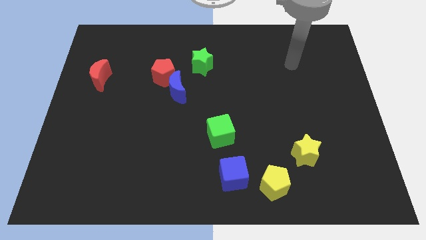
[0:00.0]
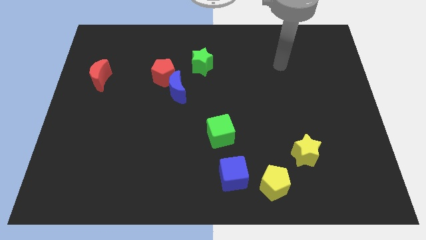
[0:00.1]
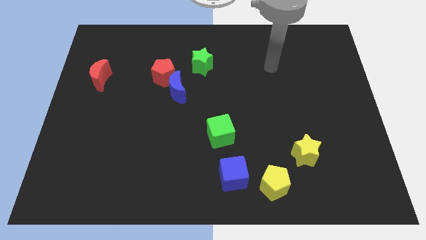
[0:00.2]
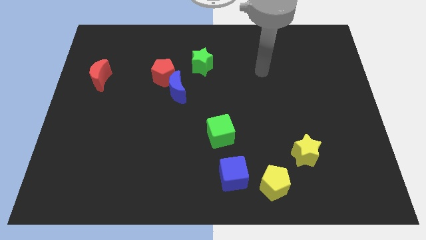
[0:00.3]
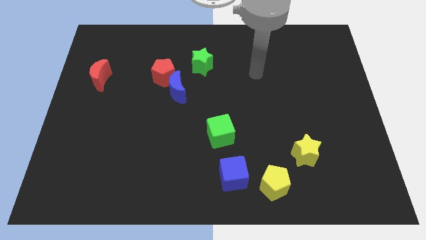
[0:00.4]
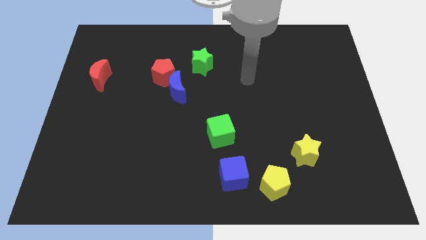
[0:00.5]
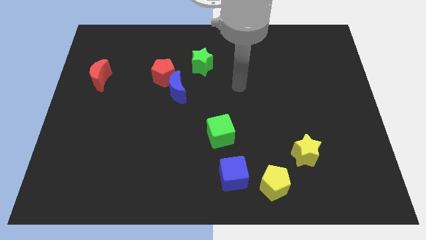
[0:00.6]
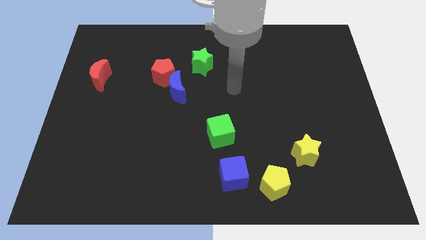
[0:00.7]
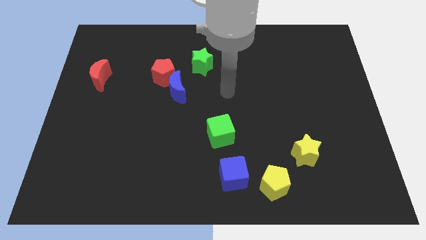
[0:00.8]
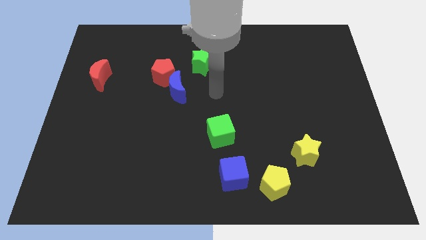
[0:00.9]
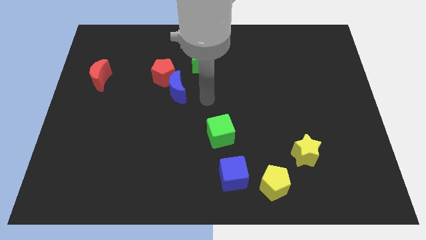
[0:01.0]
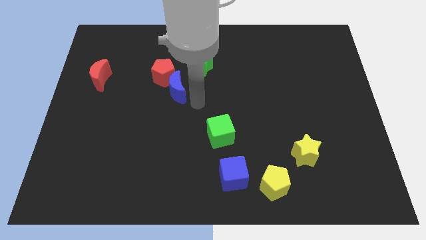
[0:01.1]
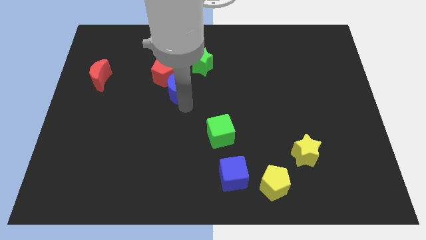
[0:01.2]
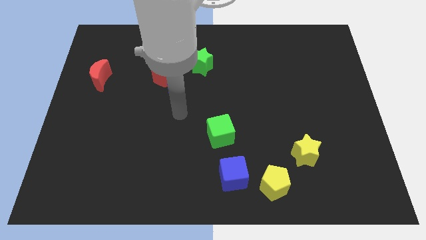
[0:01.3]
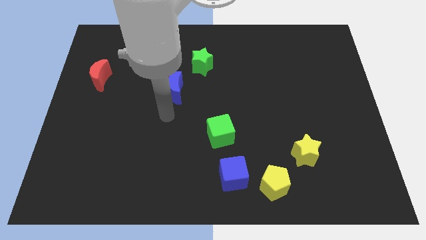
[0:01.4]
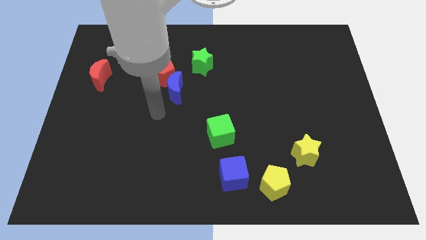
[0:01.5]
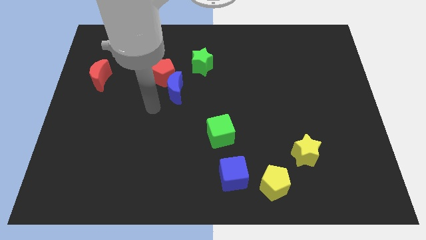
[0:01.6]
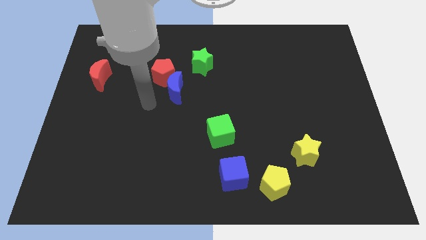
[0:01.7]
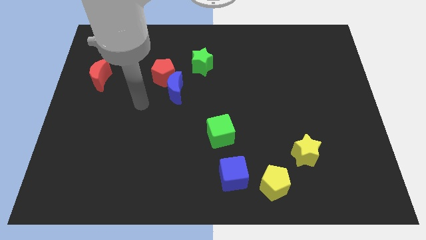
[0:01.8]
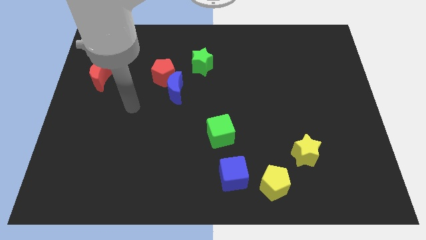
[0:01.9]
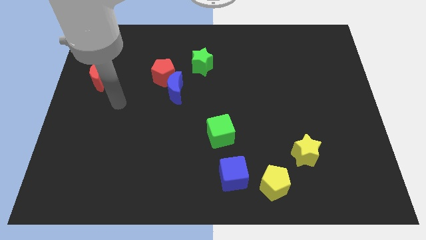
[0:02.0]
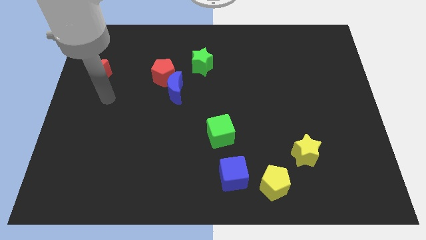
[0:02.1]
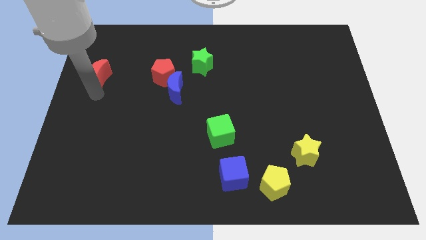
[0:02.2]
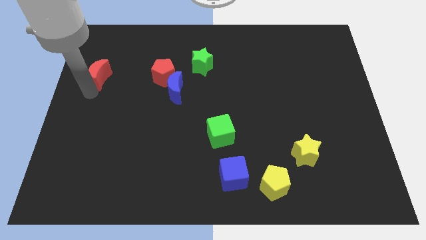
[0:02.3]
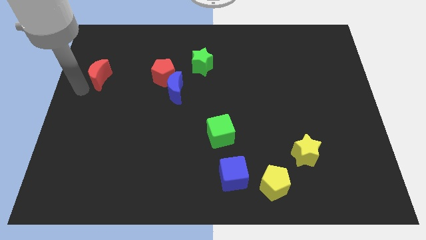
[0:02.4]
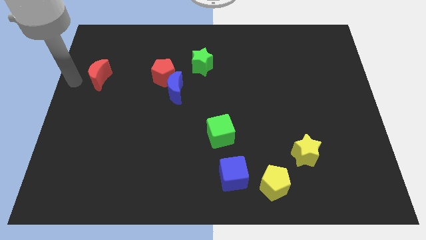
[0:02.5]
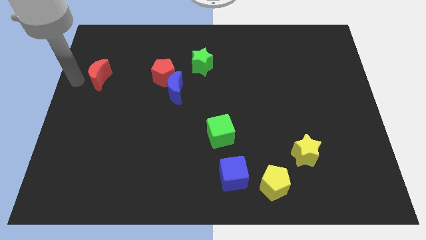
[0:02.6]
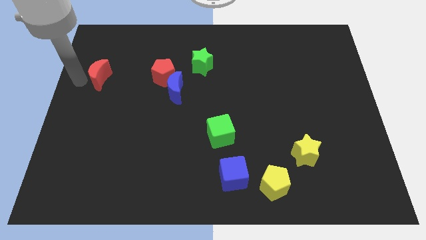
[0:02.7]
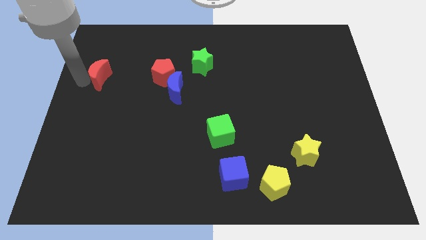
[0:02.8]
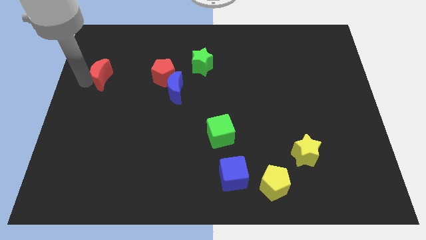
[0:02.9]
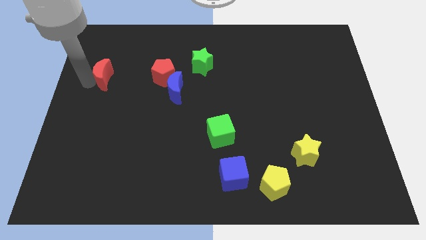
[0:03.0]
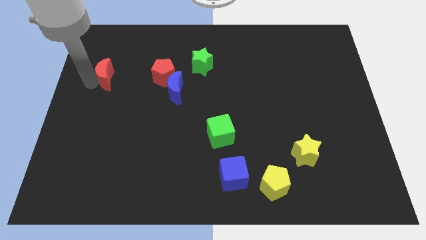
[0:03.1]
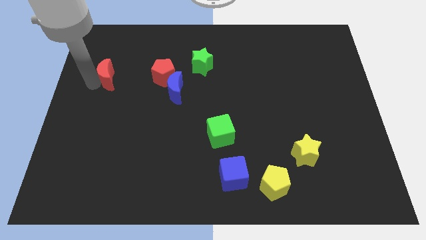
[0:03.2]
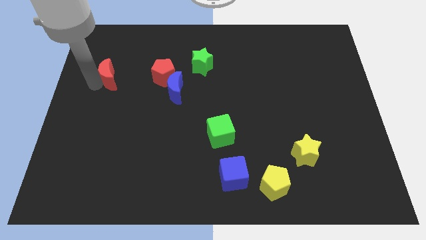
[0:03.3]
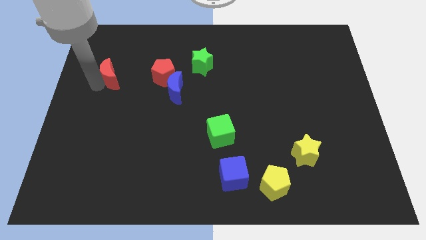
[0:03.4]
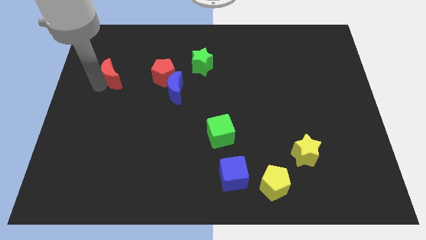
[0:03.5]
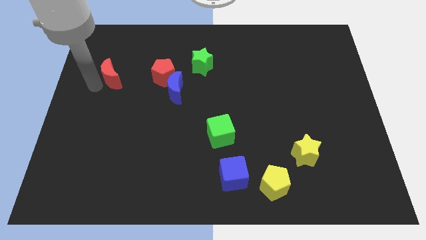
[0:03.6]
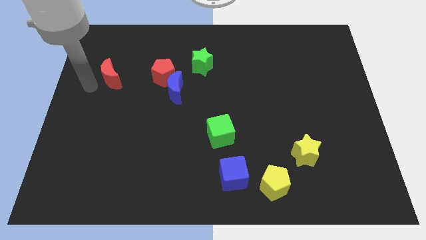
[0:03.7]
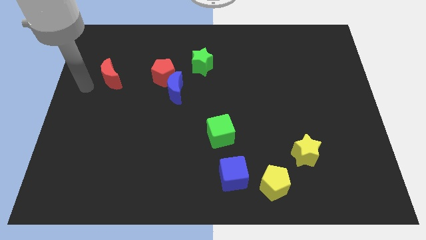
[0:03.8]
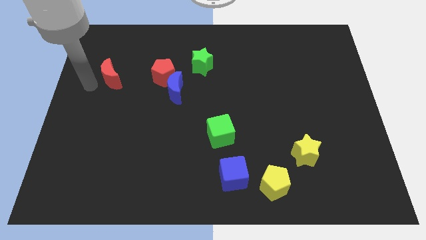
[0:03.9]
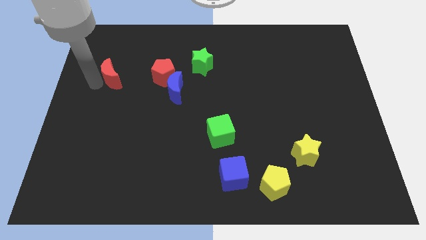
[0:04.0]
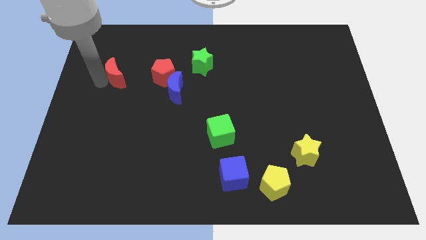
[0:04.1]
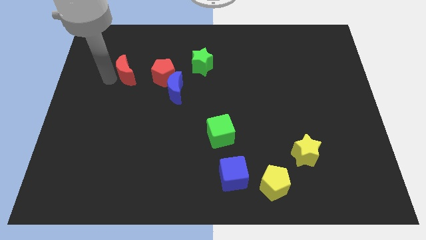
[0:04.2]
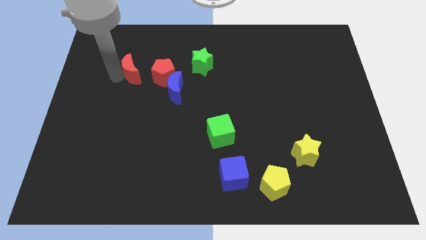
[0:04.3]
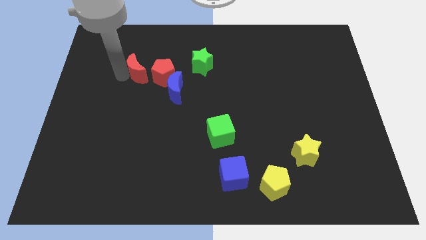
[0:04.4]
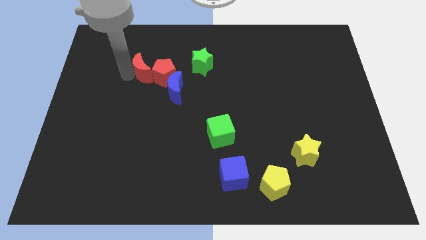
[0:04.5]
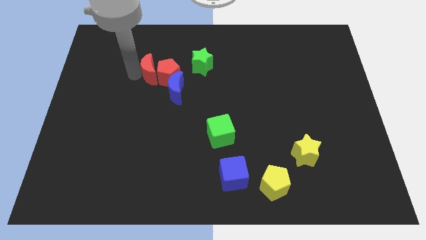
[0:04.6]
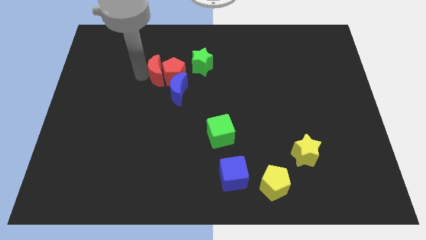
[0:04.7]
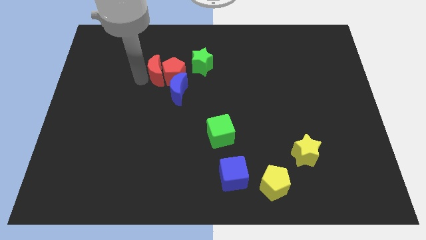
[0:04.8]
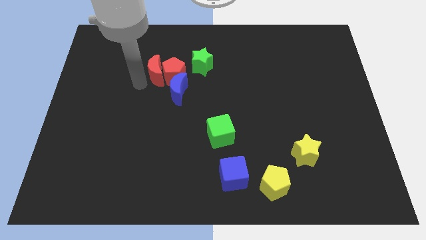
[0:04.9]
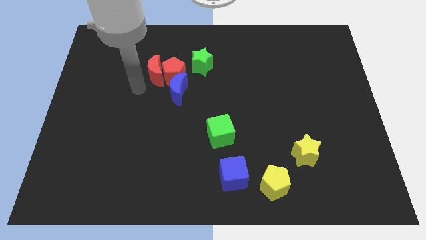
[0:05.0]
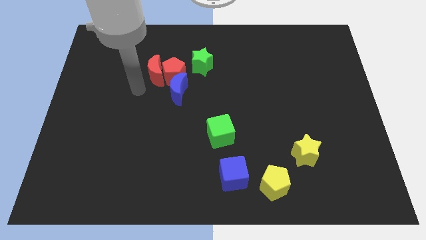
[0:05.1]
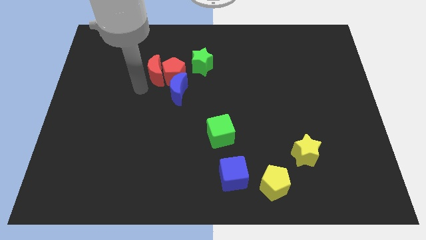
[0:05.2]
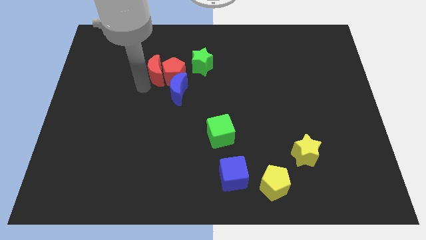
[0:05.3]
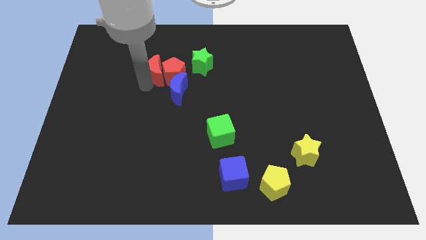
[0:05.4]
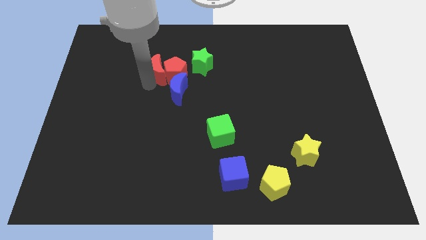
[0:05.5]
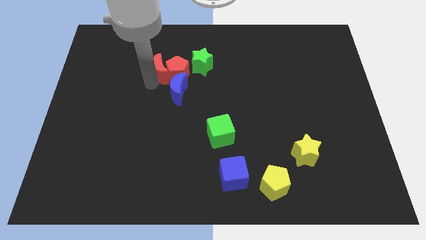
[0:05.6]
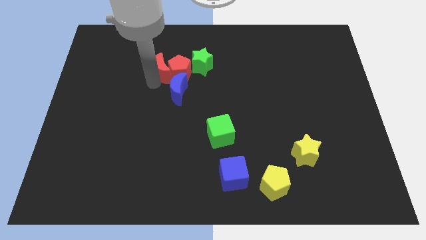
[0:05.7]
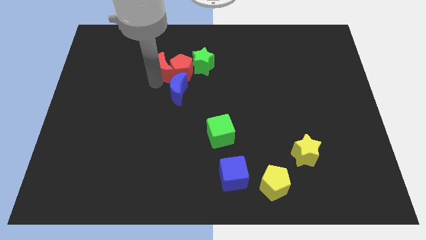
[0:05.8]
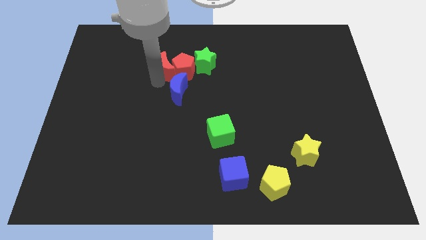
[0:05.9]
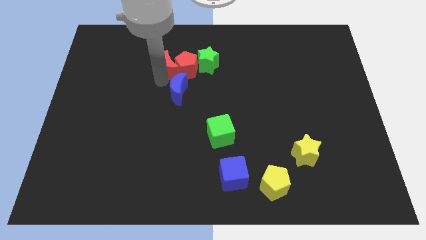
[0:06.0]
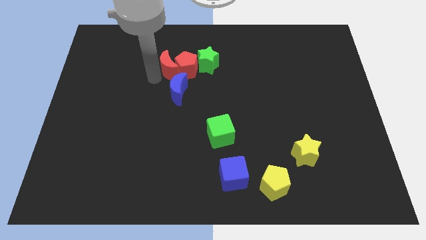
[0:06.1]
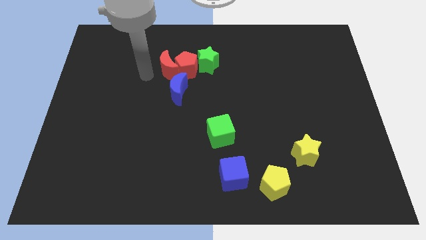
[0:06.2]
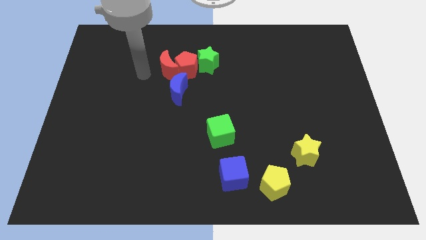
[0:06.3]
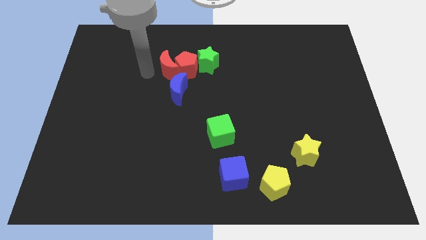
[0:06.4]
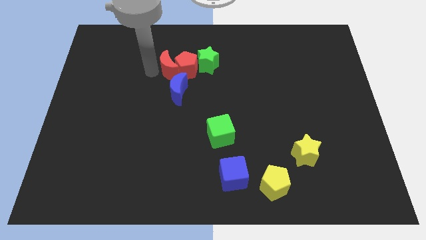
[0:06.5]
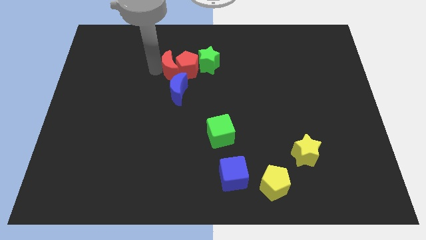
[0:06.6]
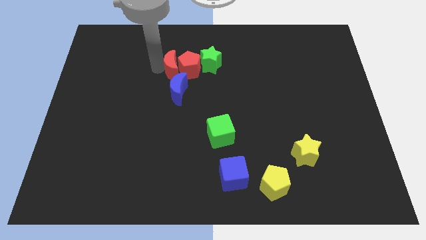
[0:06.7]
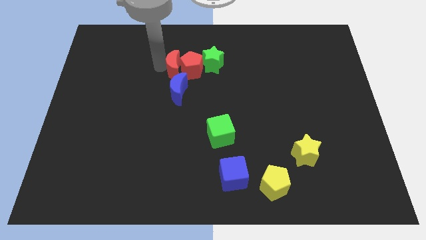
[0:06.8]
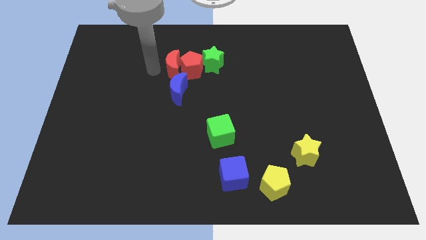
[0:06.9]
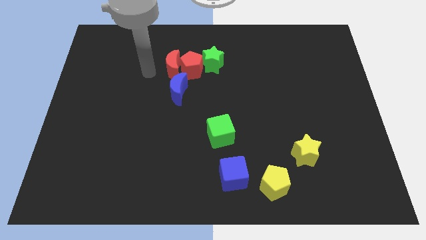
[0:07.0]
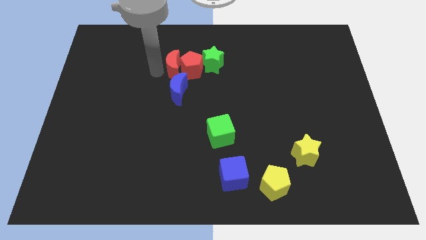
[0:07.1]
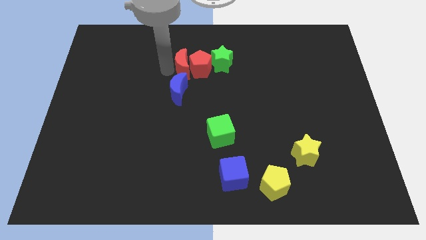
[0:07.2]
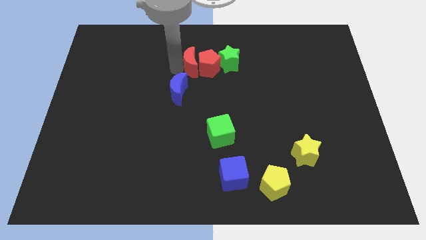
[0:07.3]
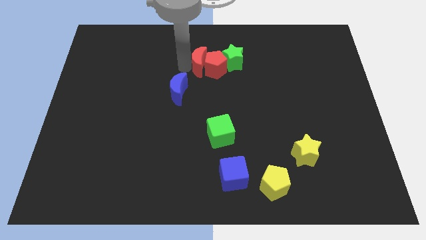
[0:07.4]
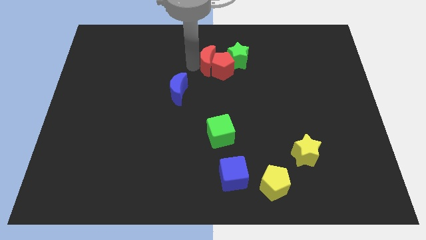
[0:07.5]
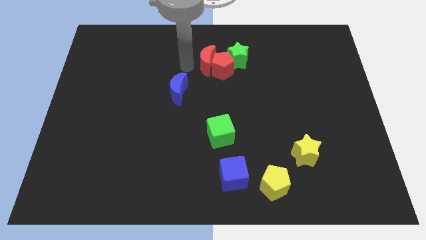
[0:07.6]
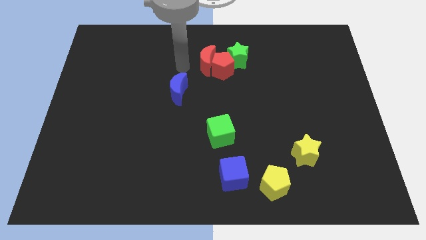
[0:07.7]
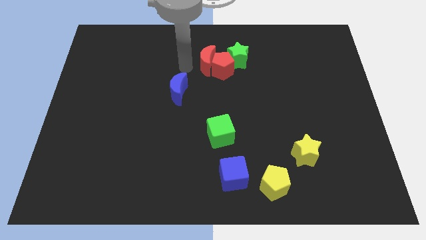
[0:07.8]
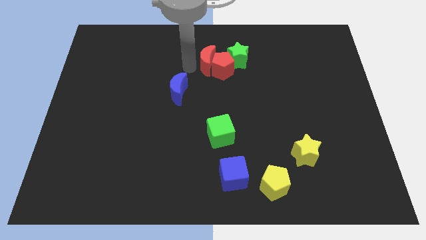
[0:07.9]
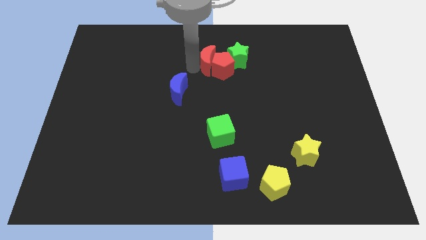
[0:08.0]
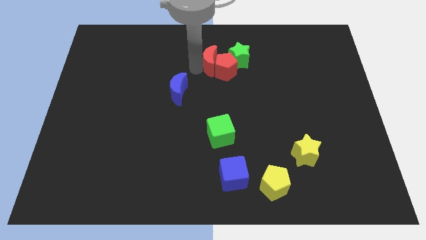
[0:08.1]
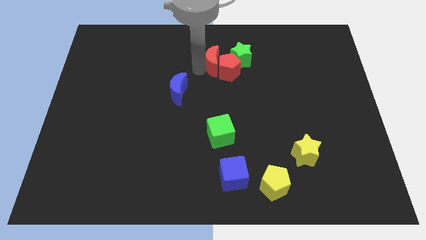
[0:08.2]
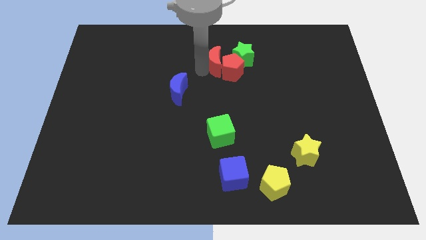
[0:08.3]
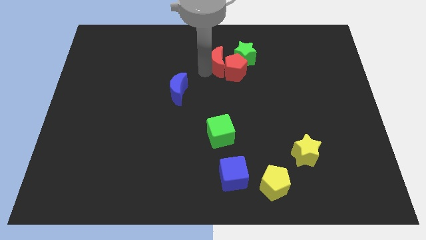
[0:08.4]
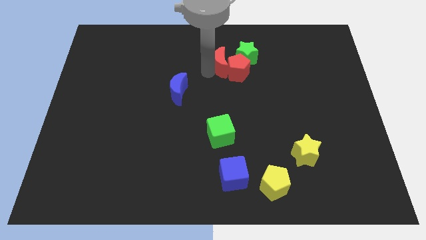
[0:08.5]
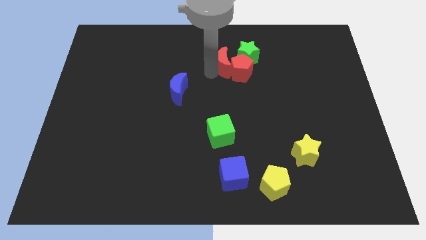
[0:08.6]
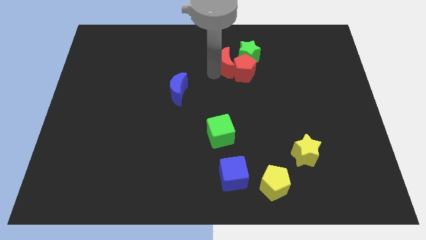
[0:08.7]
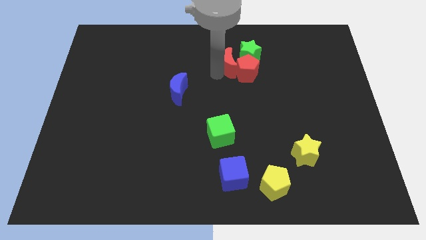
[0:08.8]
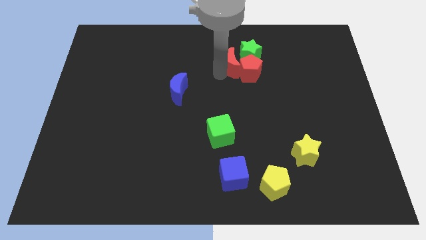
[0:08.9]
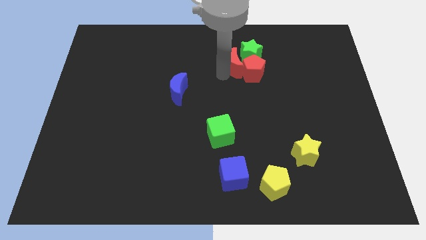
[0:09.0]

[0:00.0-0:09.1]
slide the red moon next to the green star
